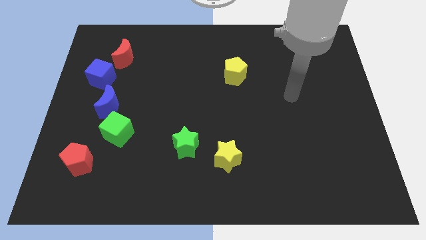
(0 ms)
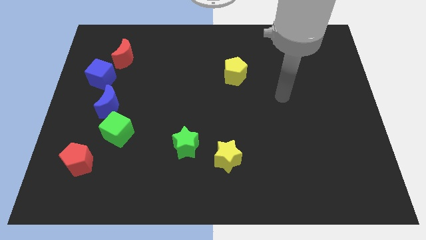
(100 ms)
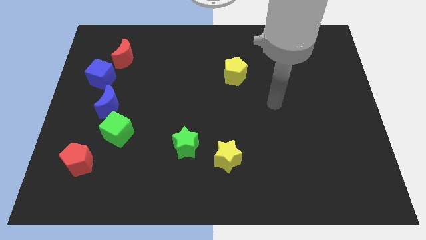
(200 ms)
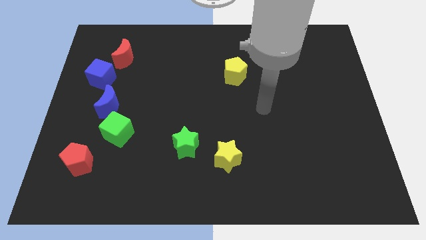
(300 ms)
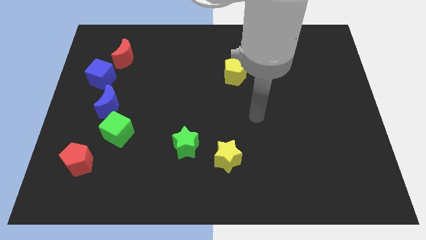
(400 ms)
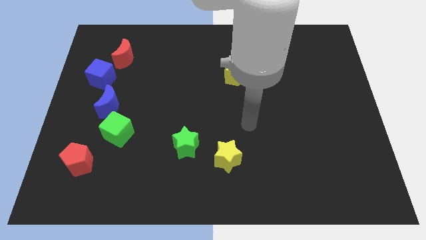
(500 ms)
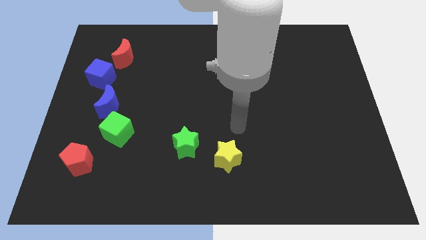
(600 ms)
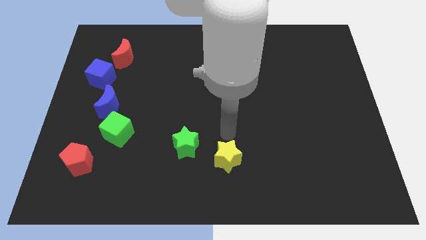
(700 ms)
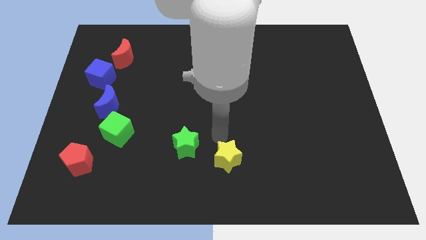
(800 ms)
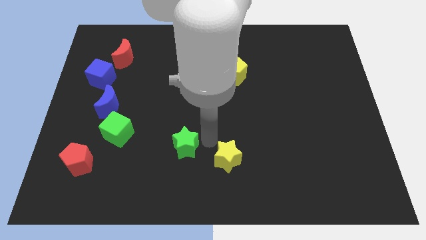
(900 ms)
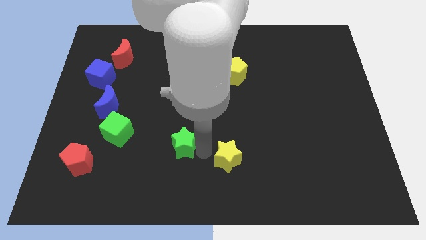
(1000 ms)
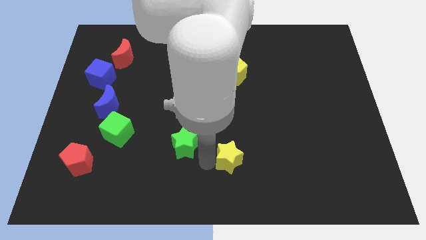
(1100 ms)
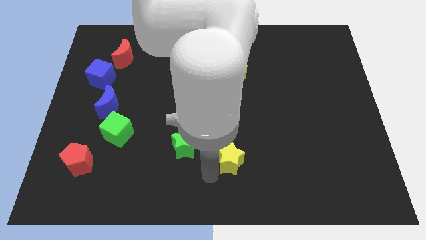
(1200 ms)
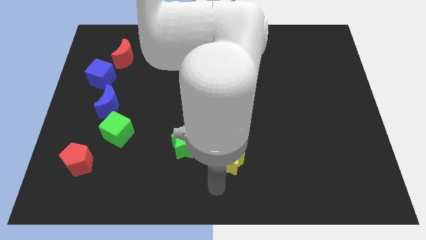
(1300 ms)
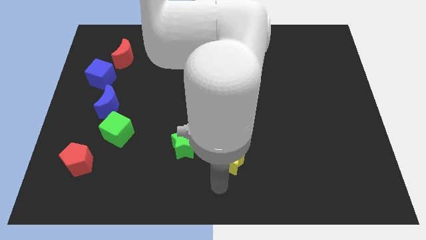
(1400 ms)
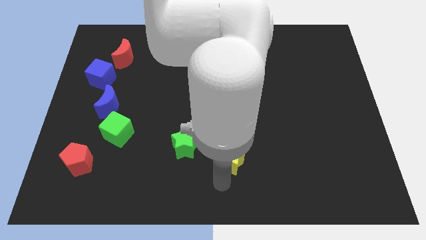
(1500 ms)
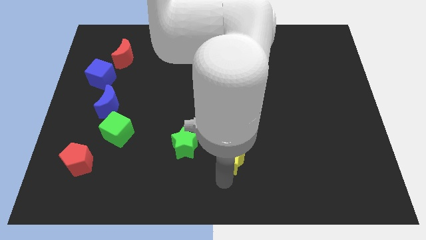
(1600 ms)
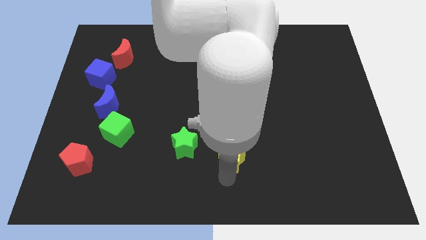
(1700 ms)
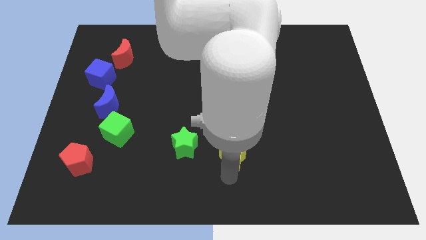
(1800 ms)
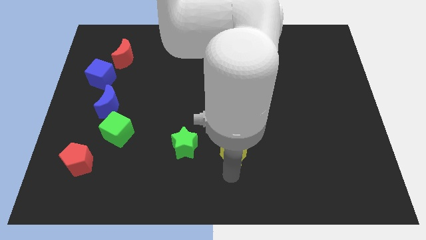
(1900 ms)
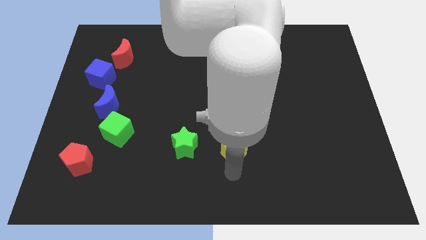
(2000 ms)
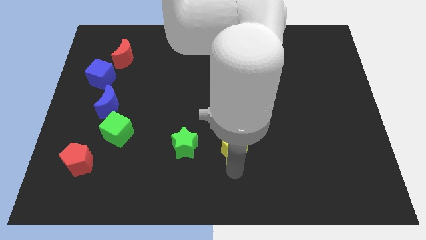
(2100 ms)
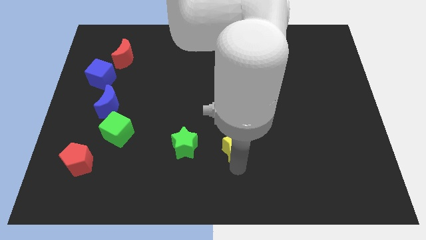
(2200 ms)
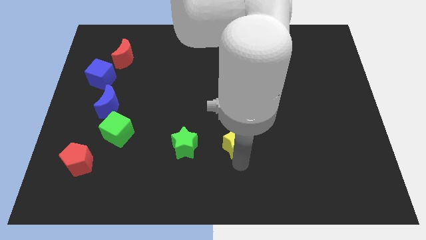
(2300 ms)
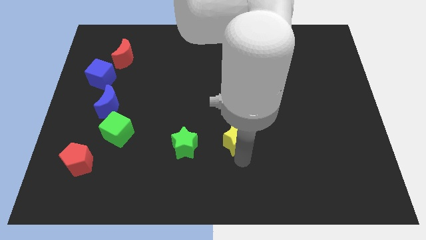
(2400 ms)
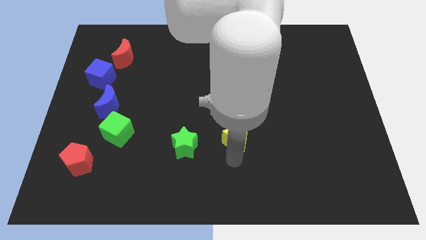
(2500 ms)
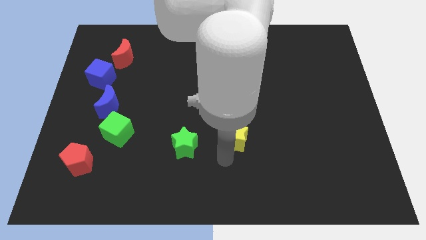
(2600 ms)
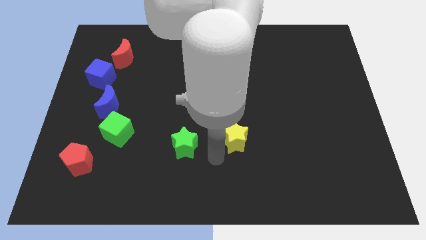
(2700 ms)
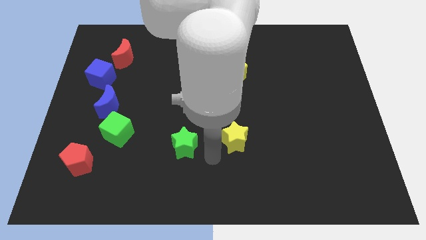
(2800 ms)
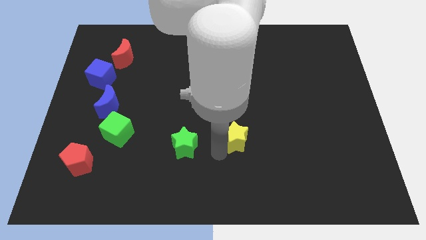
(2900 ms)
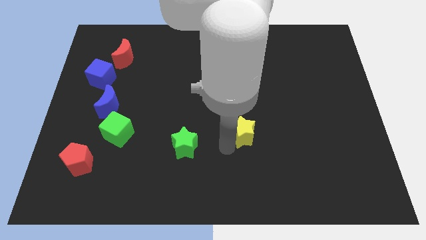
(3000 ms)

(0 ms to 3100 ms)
move the yellow star somewhat up and right diagonally

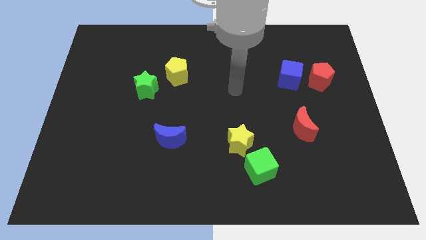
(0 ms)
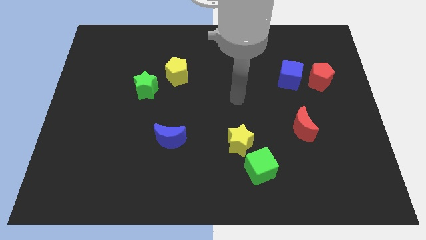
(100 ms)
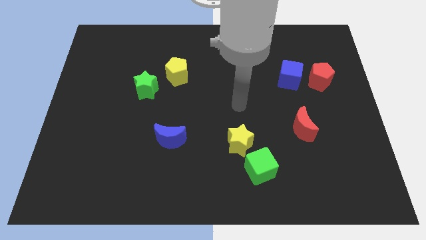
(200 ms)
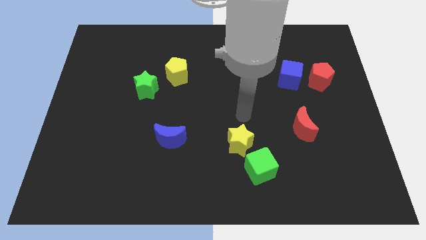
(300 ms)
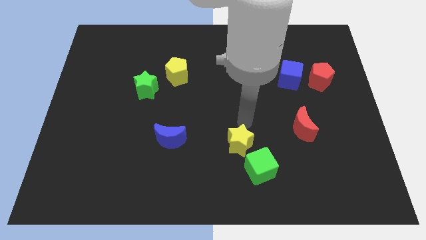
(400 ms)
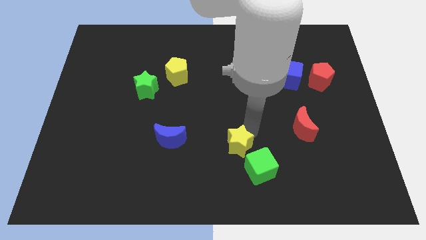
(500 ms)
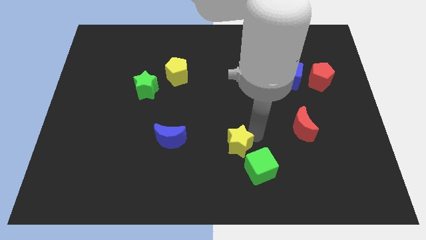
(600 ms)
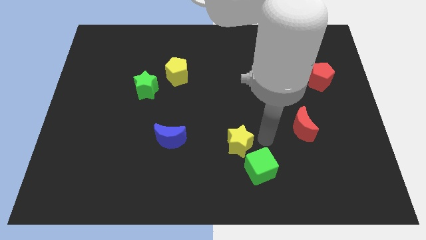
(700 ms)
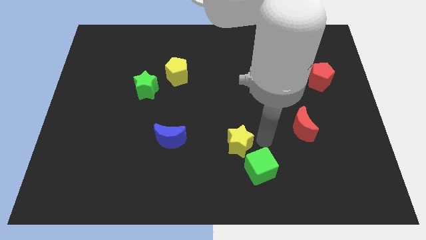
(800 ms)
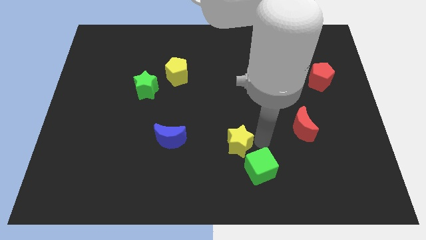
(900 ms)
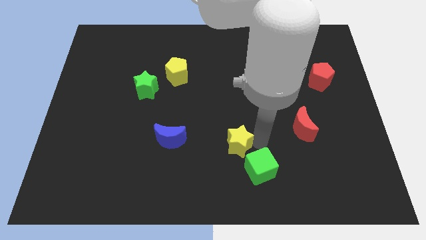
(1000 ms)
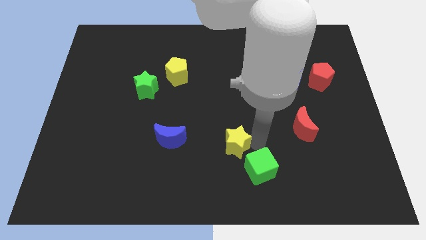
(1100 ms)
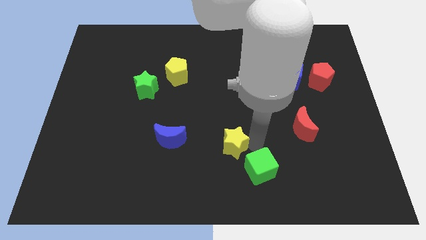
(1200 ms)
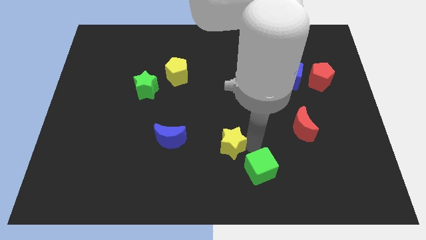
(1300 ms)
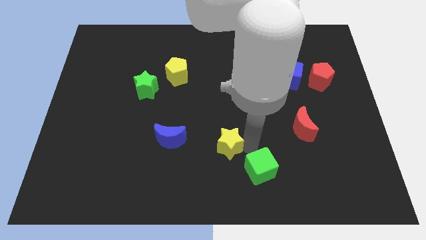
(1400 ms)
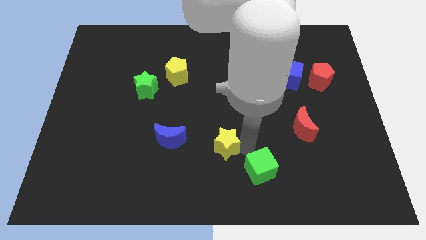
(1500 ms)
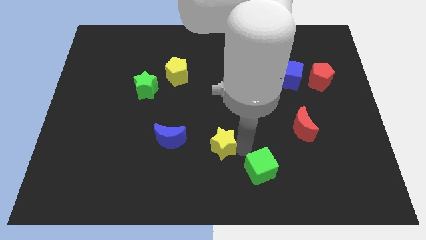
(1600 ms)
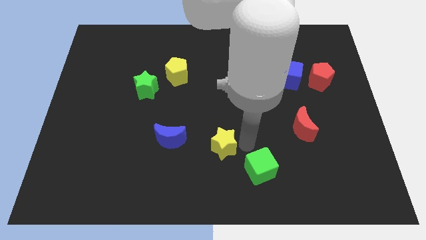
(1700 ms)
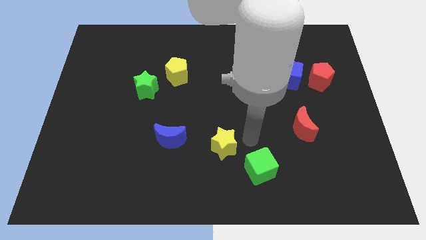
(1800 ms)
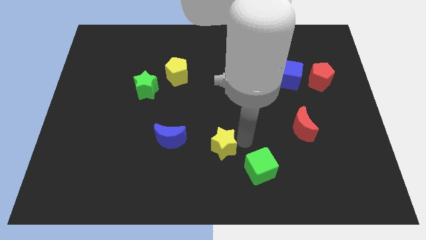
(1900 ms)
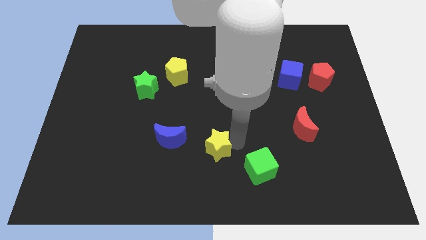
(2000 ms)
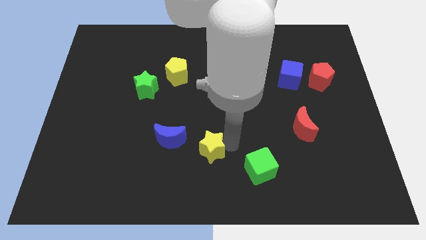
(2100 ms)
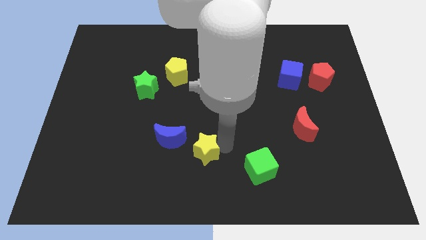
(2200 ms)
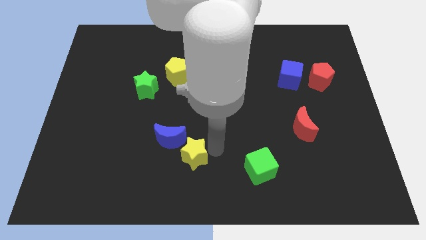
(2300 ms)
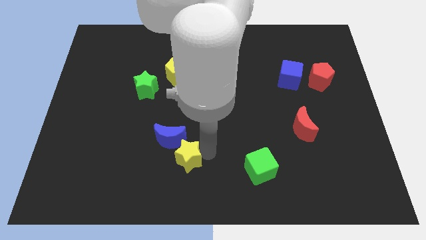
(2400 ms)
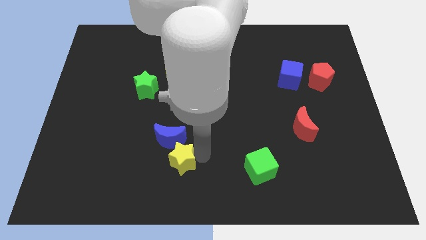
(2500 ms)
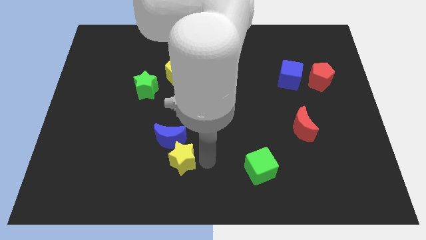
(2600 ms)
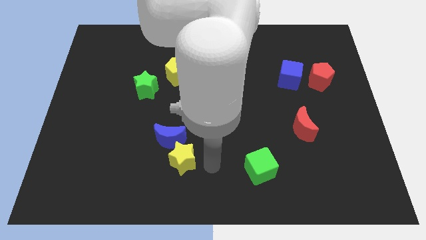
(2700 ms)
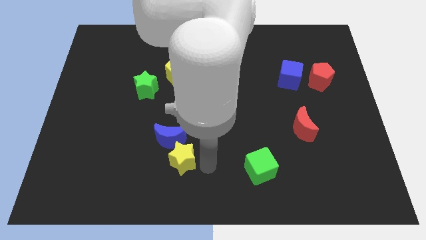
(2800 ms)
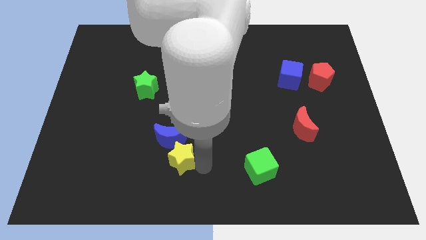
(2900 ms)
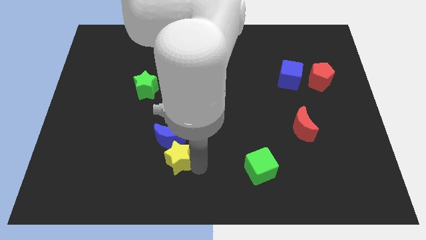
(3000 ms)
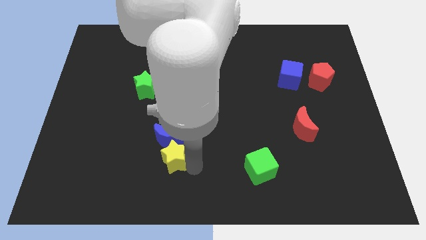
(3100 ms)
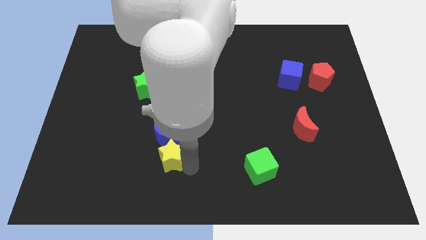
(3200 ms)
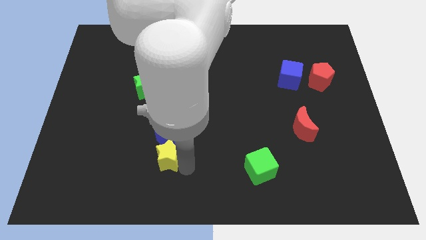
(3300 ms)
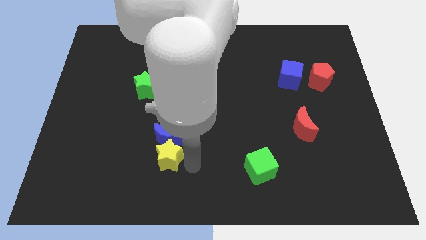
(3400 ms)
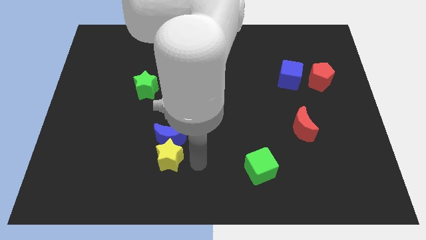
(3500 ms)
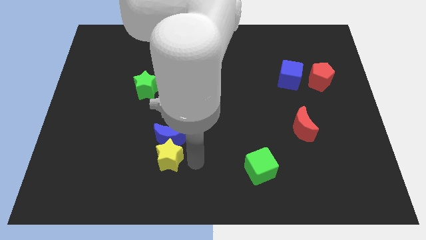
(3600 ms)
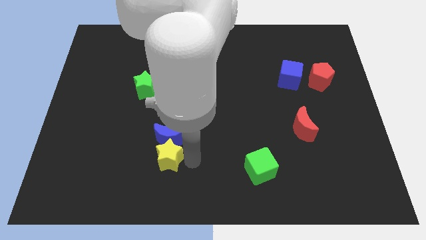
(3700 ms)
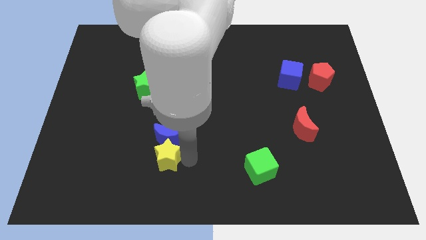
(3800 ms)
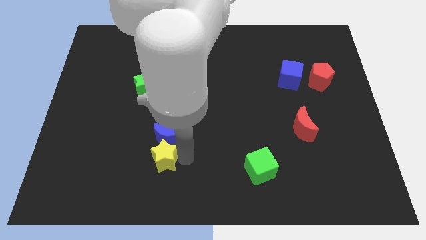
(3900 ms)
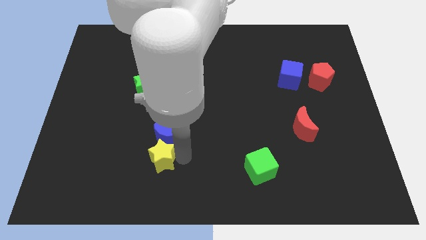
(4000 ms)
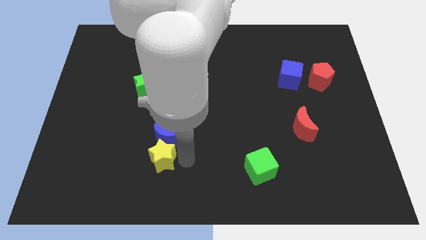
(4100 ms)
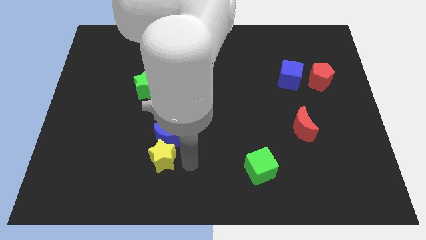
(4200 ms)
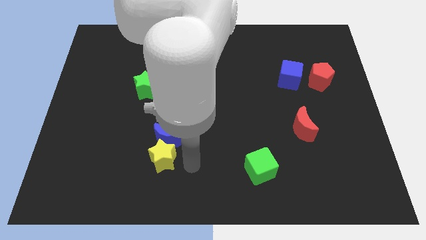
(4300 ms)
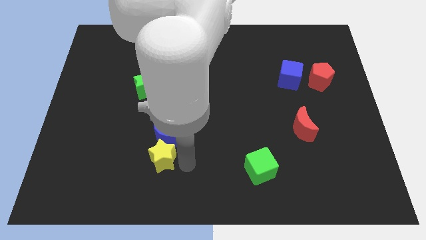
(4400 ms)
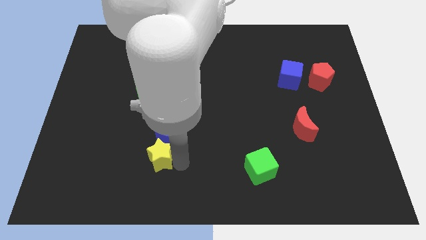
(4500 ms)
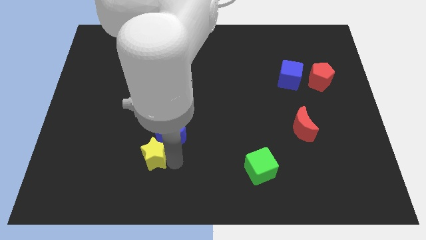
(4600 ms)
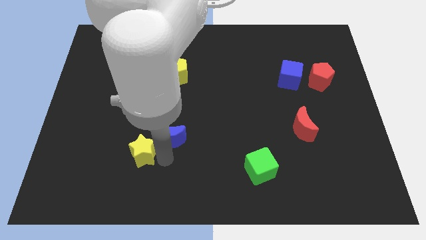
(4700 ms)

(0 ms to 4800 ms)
move the yellow star left
